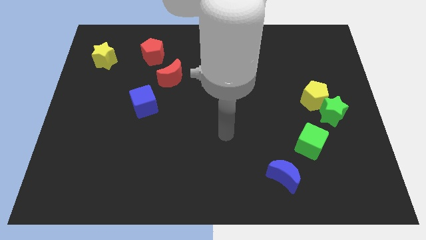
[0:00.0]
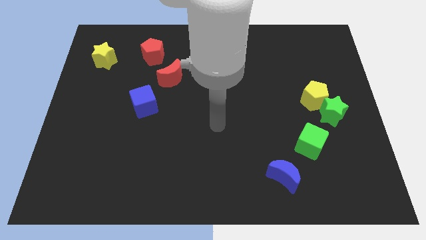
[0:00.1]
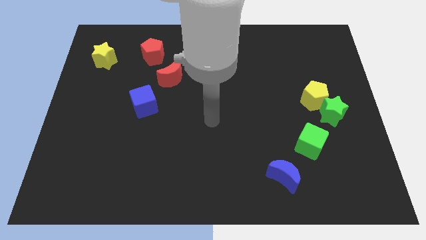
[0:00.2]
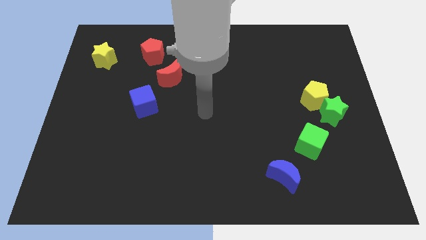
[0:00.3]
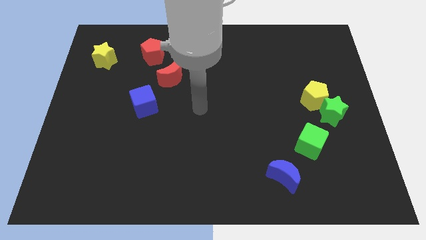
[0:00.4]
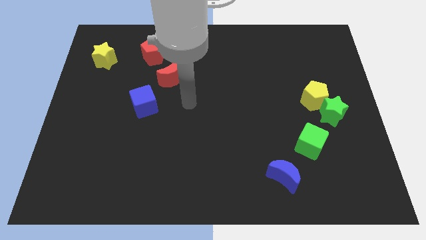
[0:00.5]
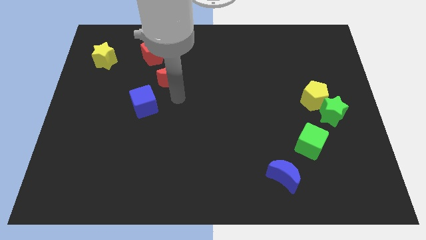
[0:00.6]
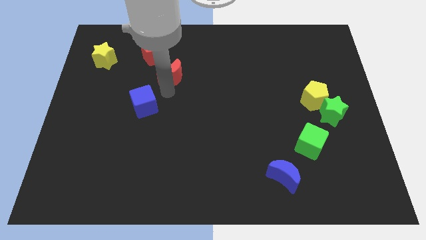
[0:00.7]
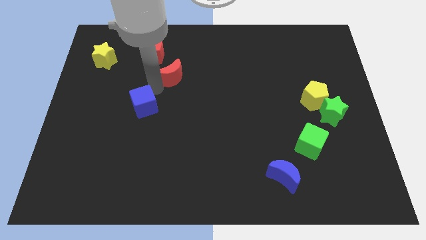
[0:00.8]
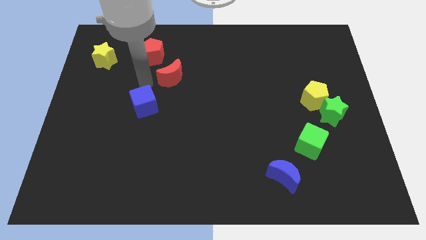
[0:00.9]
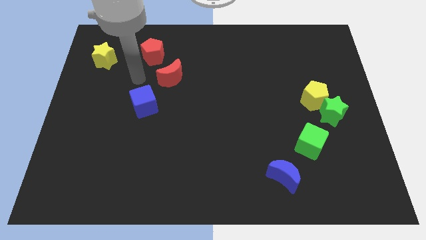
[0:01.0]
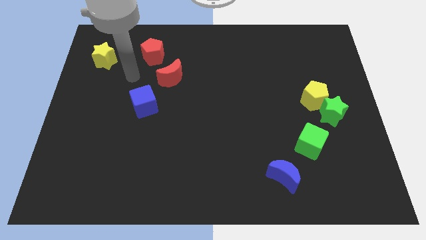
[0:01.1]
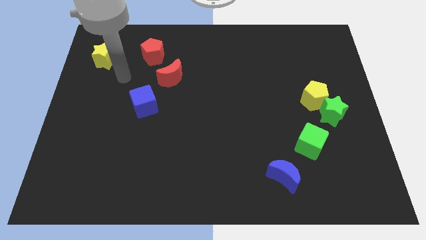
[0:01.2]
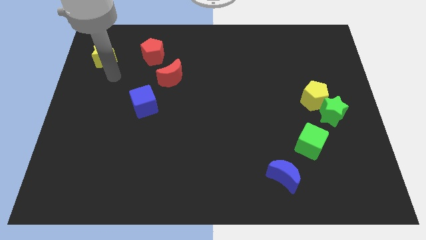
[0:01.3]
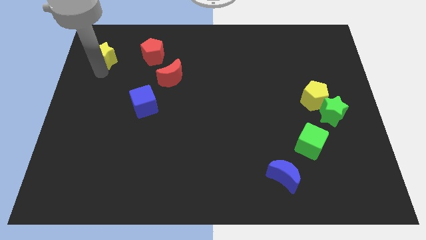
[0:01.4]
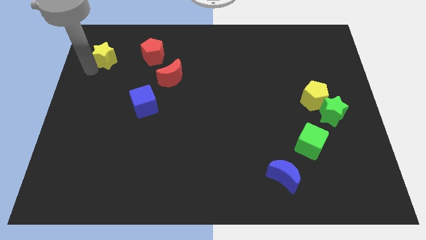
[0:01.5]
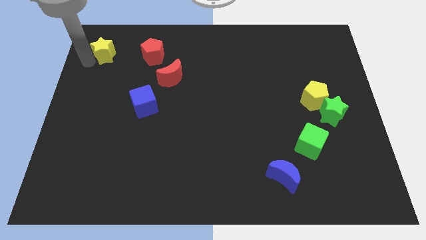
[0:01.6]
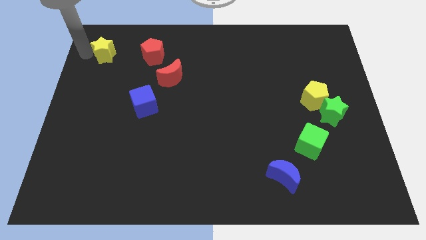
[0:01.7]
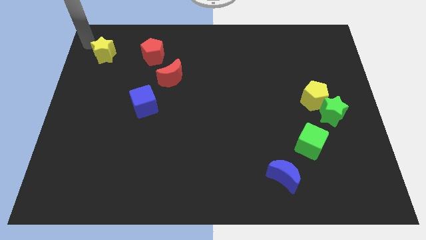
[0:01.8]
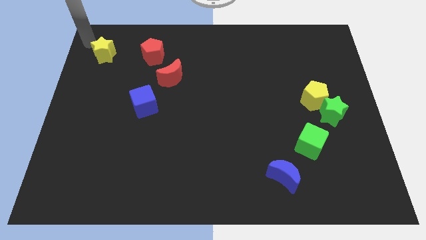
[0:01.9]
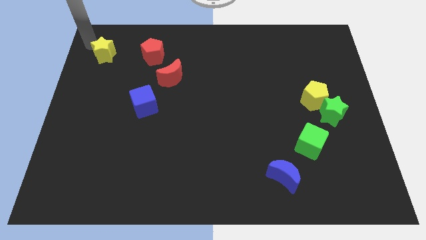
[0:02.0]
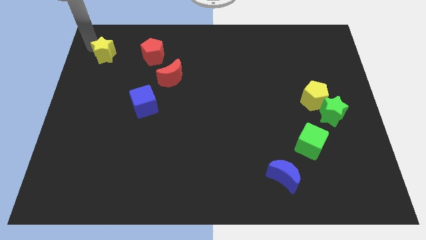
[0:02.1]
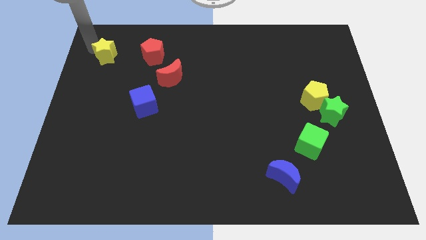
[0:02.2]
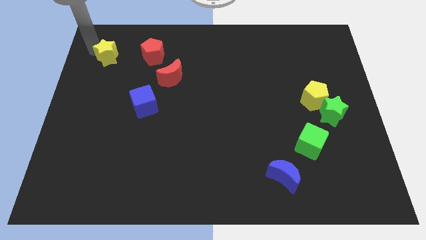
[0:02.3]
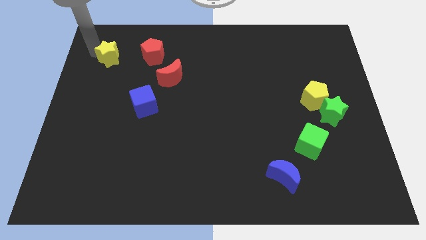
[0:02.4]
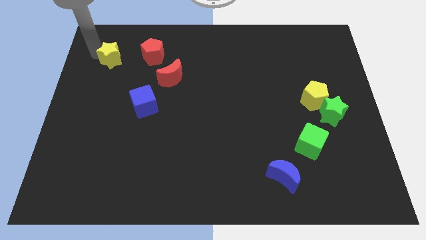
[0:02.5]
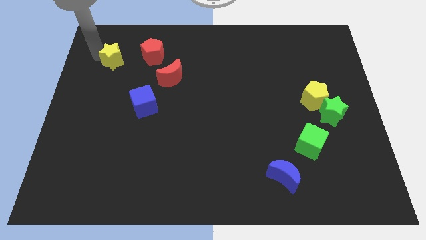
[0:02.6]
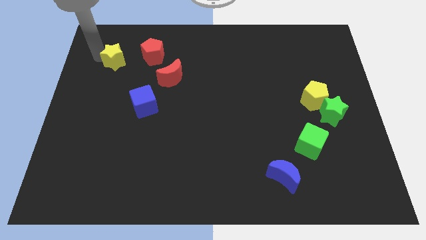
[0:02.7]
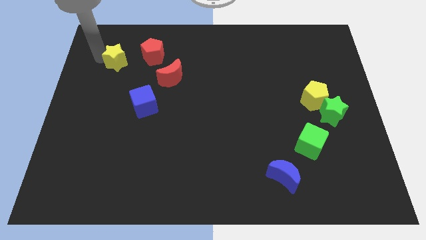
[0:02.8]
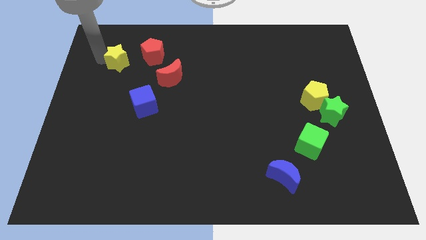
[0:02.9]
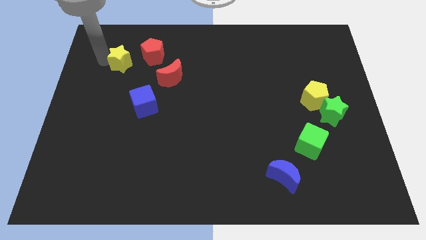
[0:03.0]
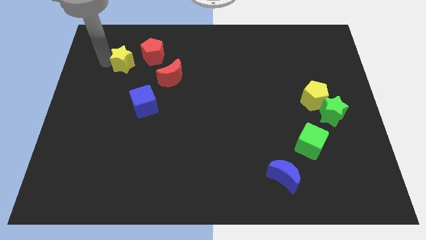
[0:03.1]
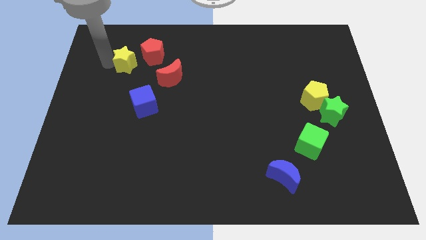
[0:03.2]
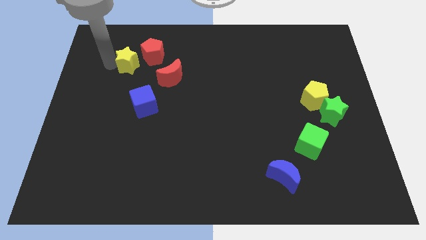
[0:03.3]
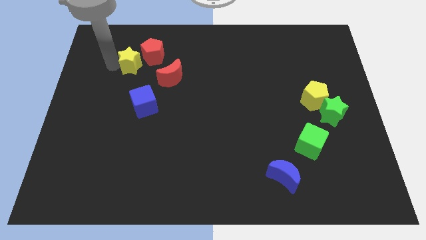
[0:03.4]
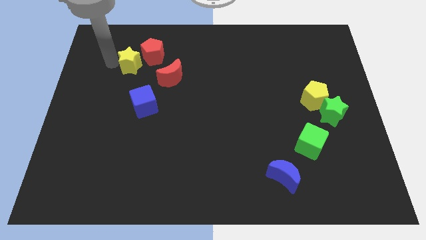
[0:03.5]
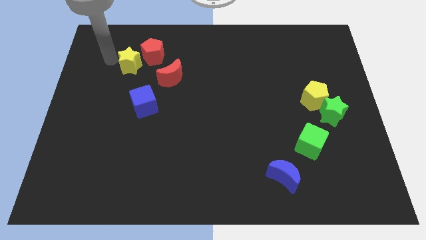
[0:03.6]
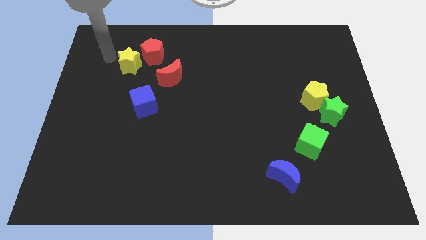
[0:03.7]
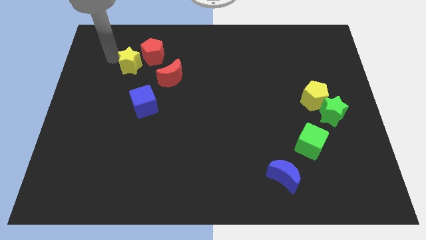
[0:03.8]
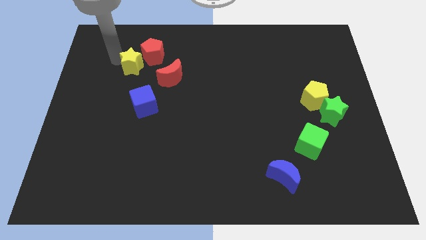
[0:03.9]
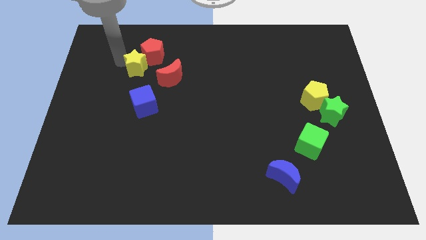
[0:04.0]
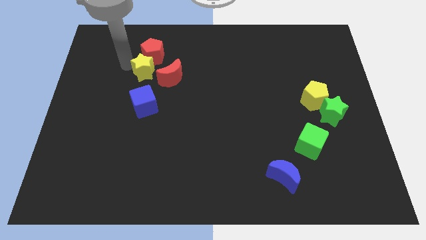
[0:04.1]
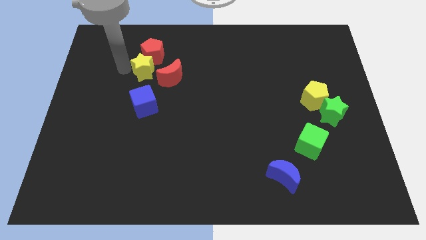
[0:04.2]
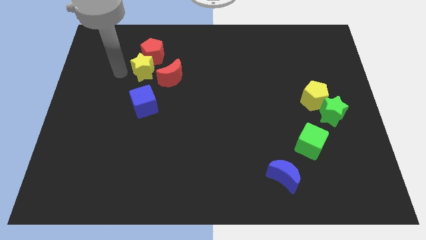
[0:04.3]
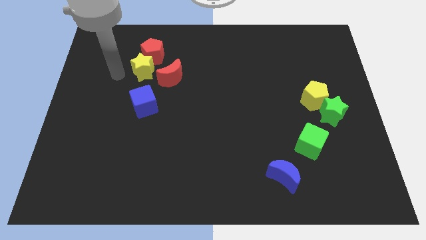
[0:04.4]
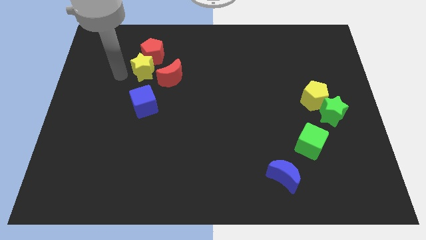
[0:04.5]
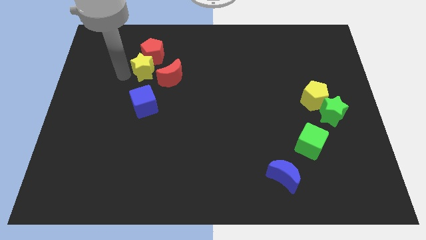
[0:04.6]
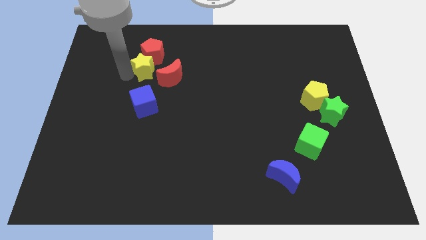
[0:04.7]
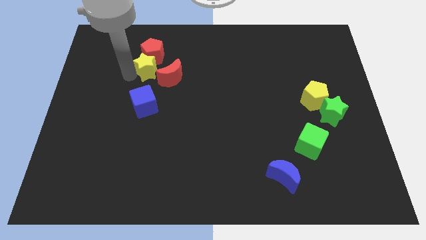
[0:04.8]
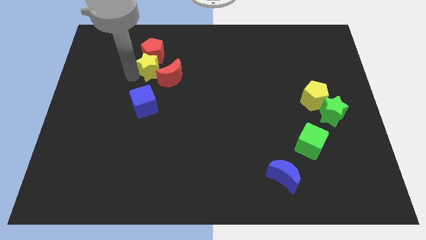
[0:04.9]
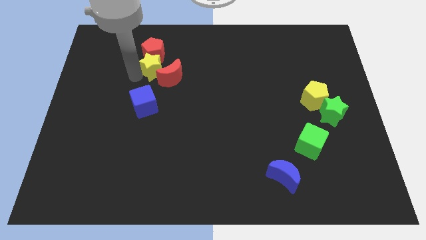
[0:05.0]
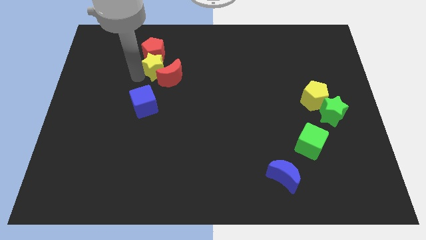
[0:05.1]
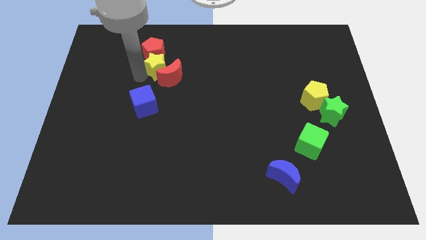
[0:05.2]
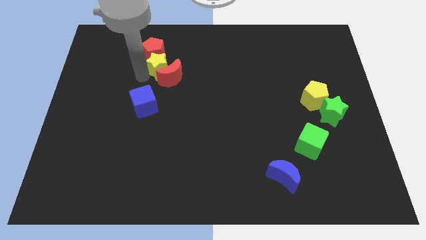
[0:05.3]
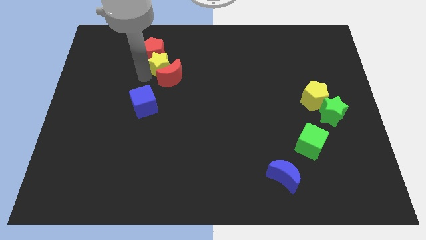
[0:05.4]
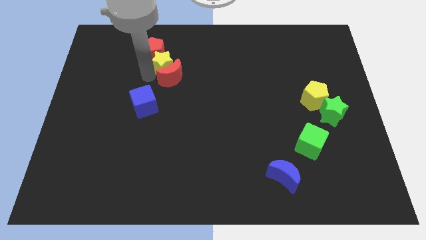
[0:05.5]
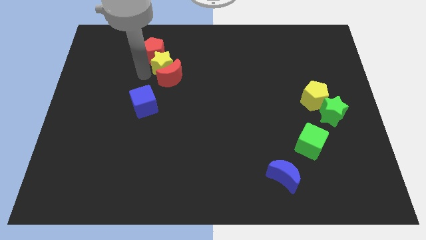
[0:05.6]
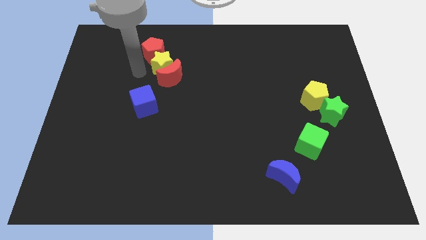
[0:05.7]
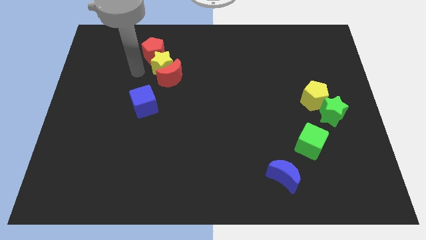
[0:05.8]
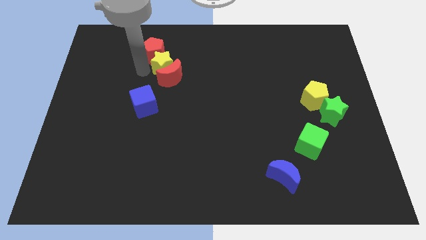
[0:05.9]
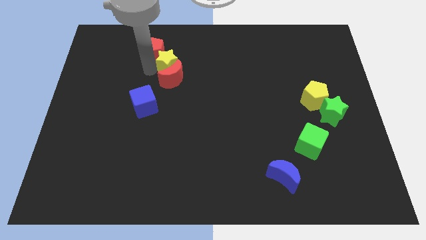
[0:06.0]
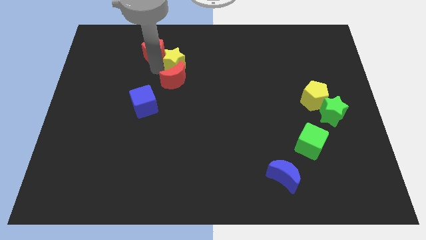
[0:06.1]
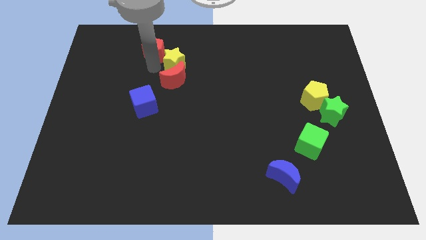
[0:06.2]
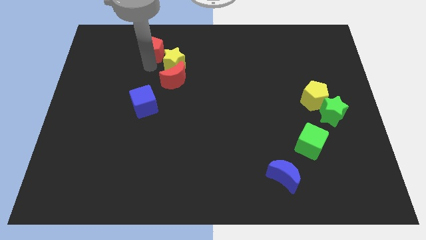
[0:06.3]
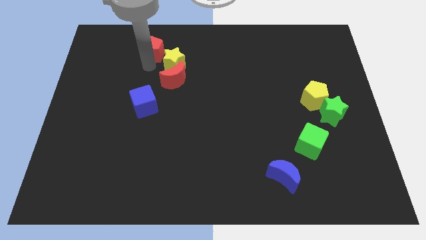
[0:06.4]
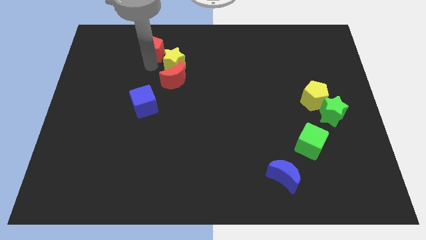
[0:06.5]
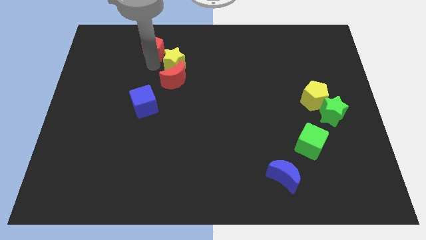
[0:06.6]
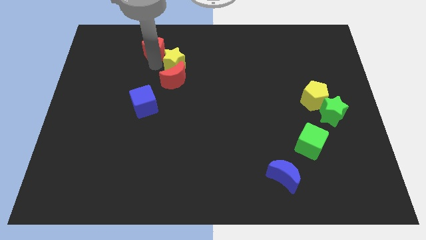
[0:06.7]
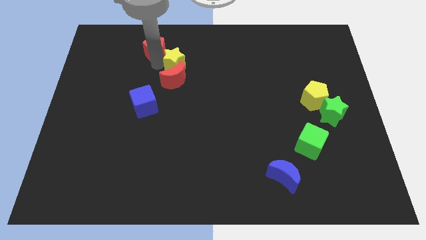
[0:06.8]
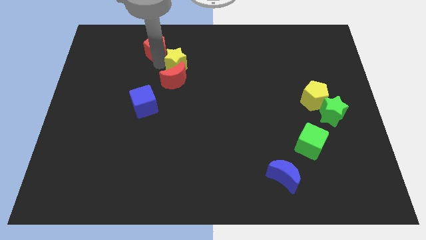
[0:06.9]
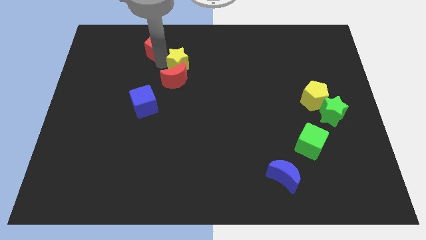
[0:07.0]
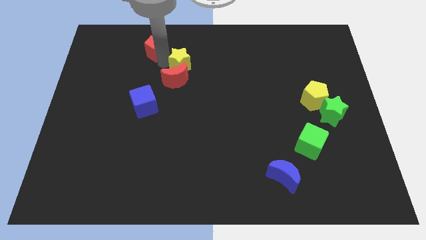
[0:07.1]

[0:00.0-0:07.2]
push the yellow star to the right

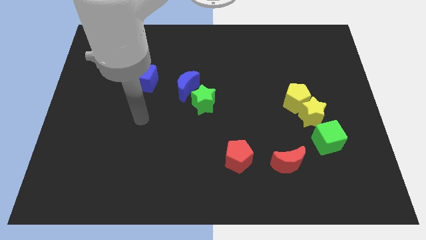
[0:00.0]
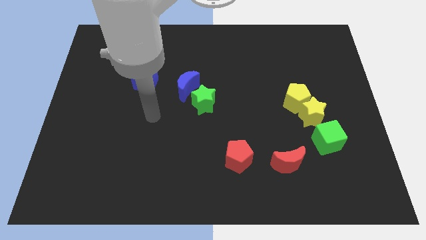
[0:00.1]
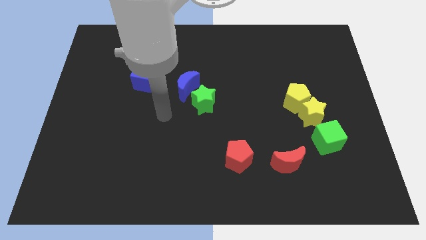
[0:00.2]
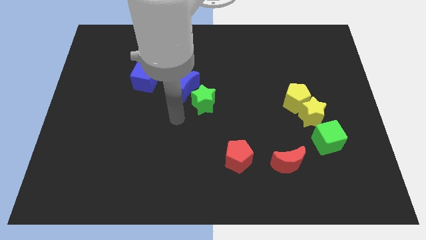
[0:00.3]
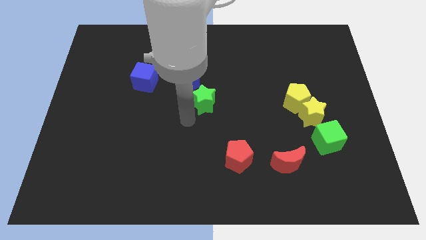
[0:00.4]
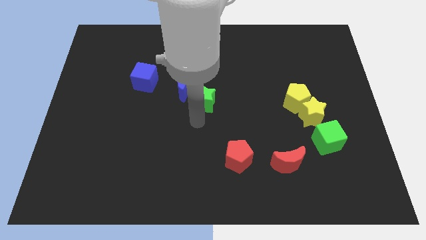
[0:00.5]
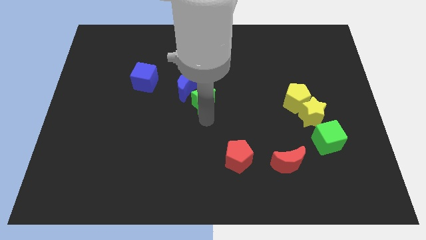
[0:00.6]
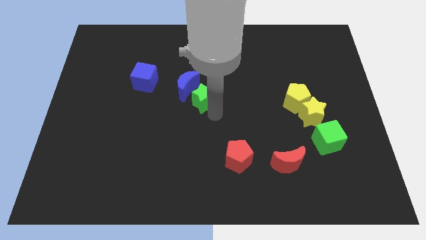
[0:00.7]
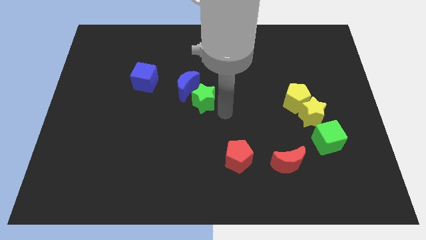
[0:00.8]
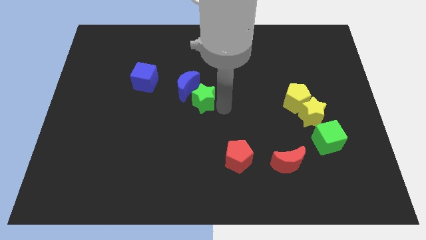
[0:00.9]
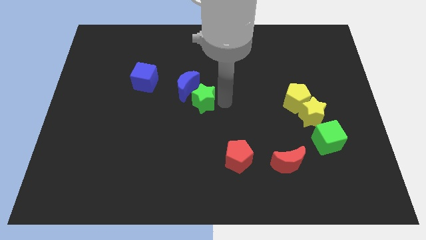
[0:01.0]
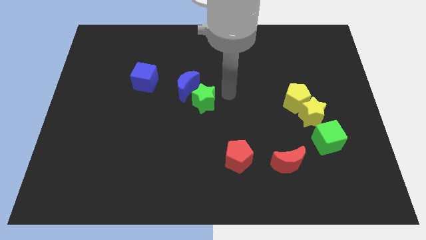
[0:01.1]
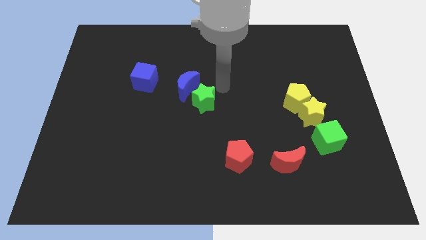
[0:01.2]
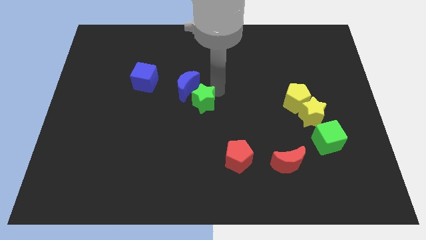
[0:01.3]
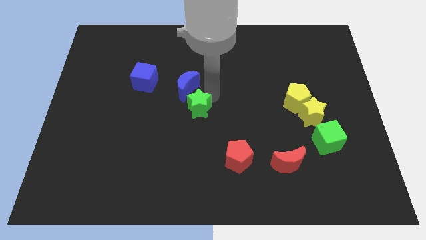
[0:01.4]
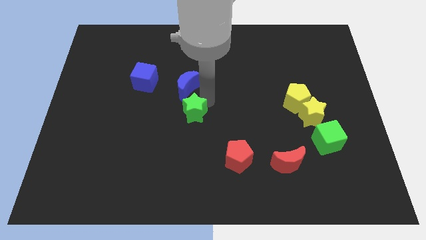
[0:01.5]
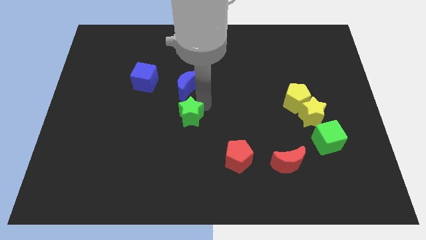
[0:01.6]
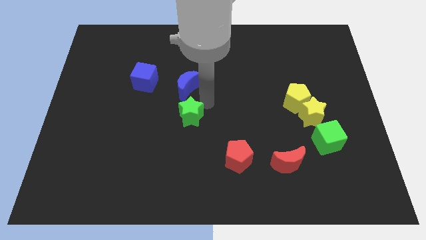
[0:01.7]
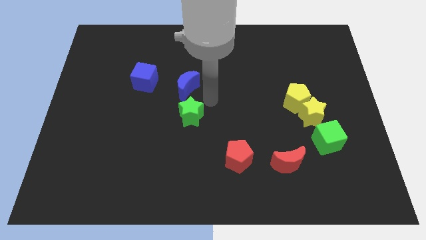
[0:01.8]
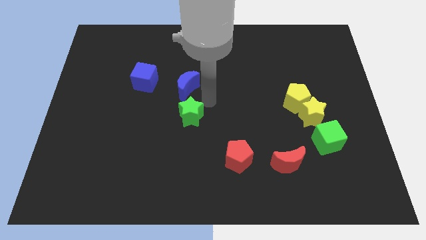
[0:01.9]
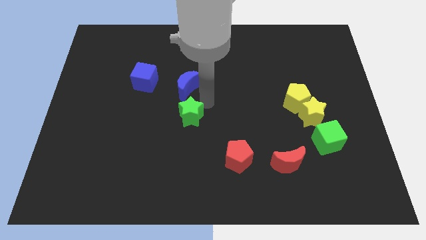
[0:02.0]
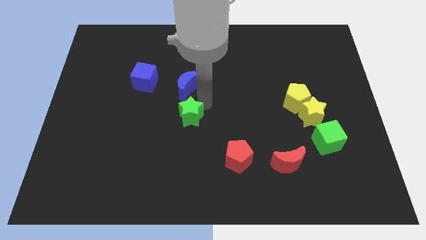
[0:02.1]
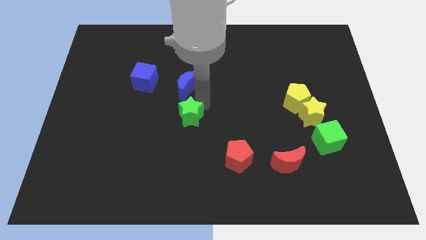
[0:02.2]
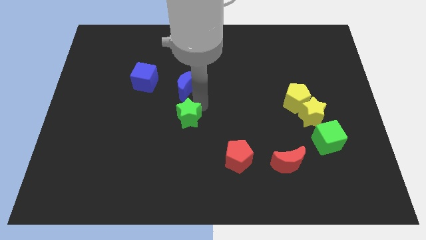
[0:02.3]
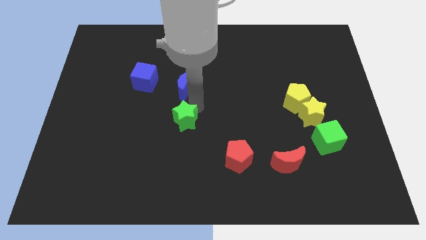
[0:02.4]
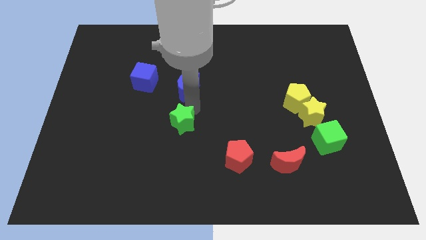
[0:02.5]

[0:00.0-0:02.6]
push the green star somewhat diagonally downwards and to the left
